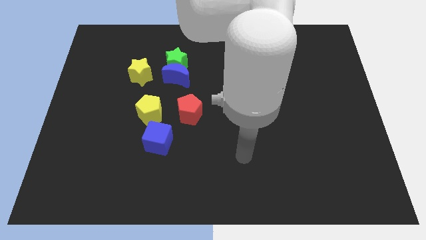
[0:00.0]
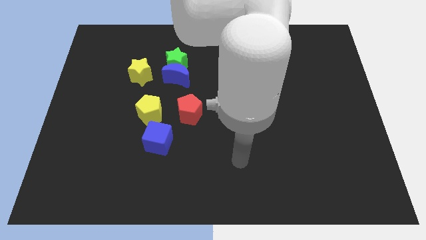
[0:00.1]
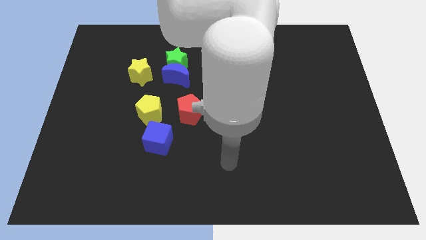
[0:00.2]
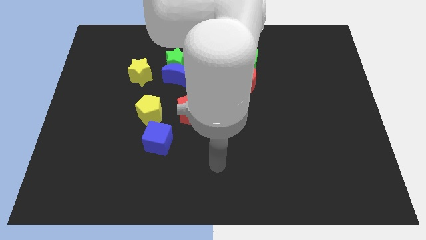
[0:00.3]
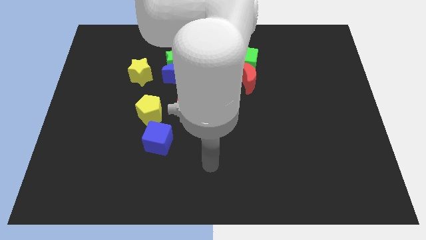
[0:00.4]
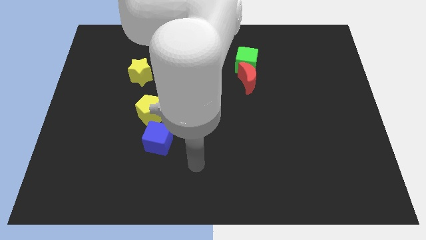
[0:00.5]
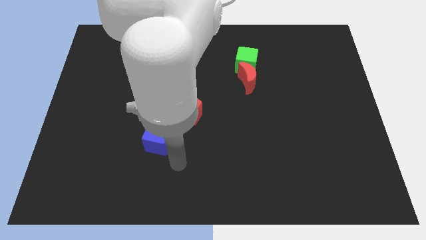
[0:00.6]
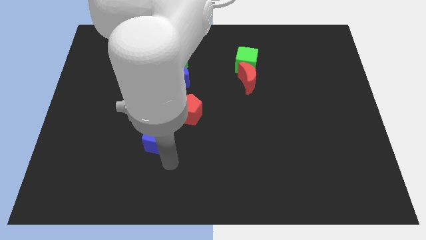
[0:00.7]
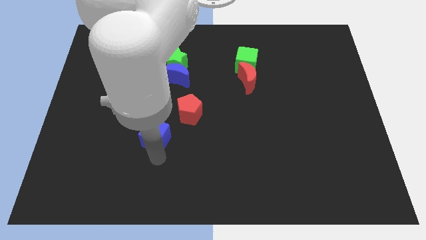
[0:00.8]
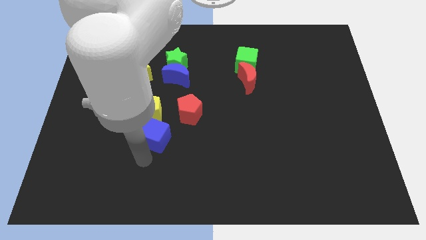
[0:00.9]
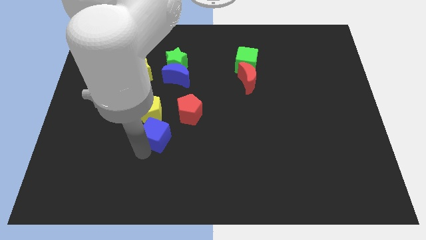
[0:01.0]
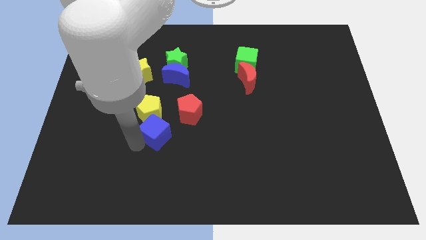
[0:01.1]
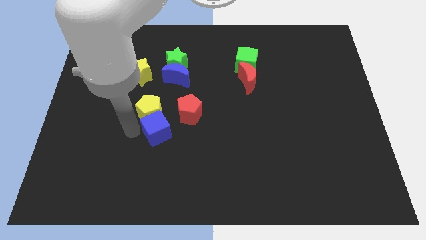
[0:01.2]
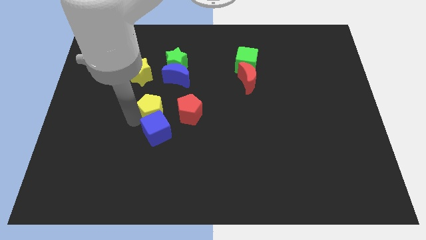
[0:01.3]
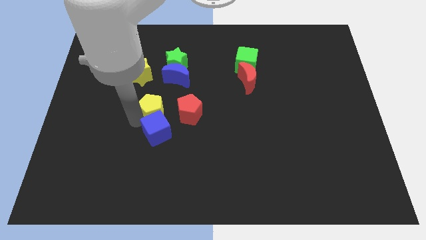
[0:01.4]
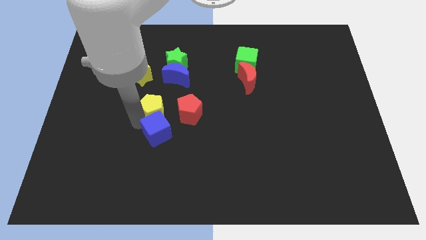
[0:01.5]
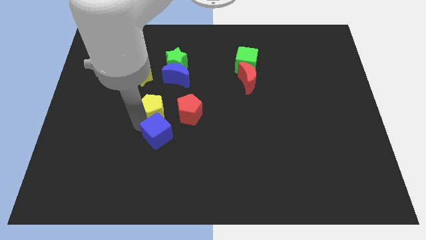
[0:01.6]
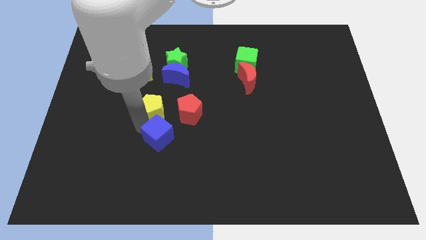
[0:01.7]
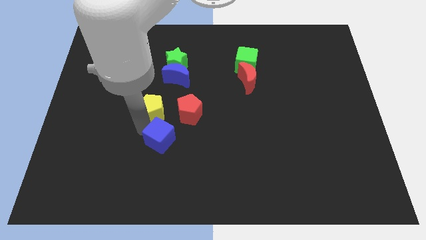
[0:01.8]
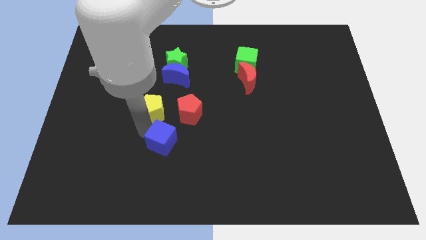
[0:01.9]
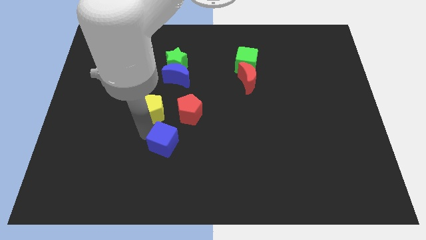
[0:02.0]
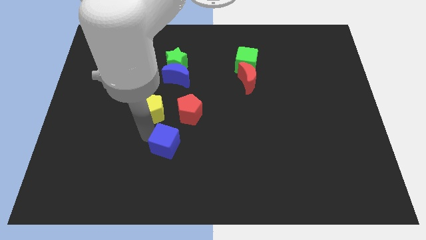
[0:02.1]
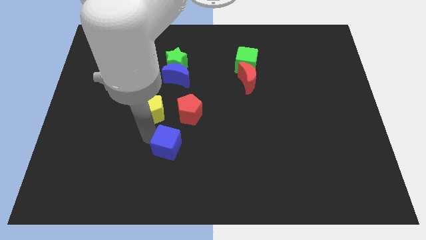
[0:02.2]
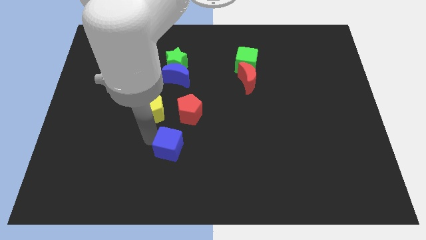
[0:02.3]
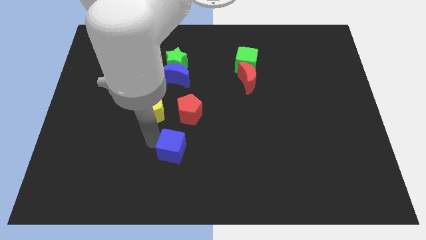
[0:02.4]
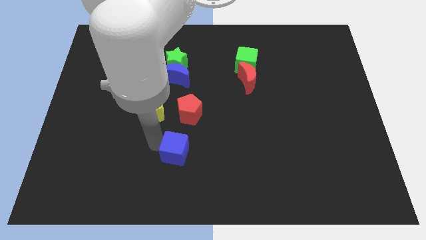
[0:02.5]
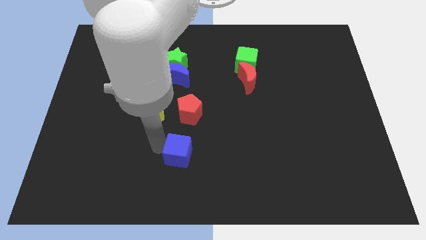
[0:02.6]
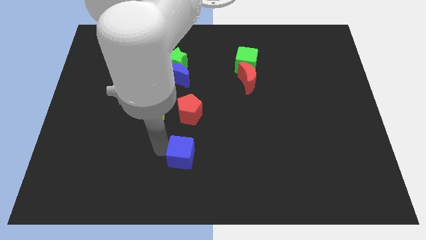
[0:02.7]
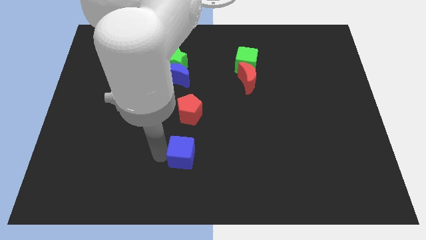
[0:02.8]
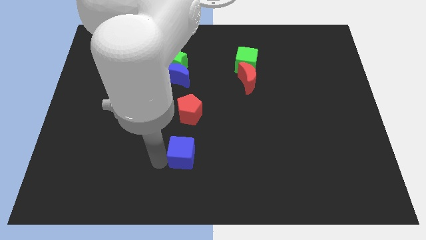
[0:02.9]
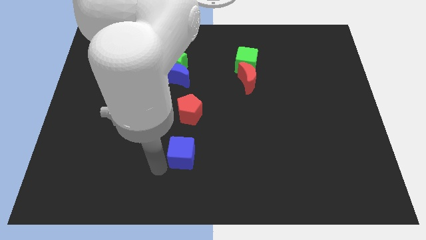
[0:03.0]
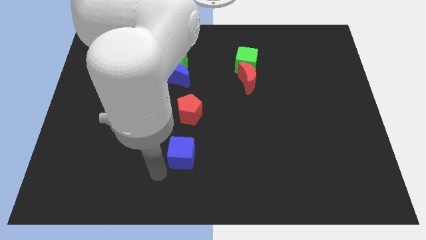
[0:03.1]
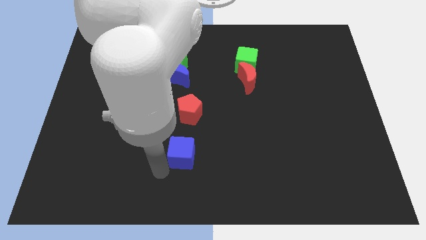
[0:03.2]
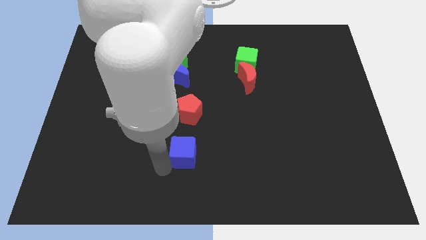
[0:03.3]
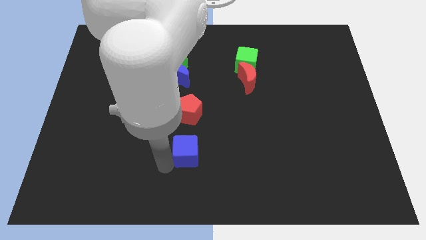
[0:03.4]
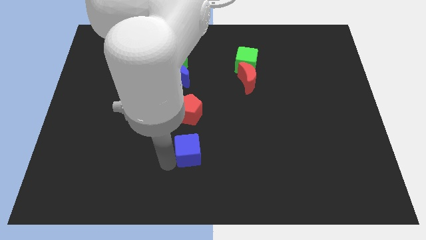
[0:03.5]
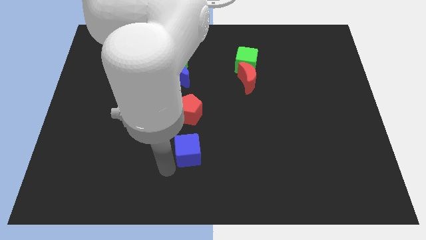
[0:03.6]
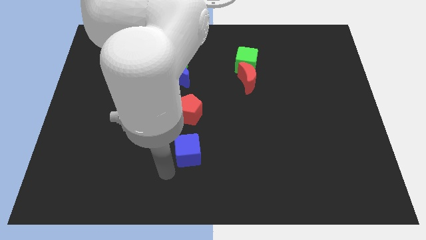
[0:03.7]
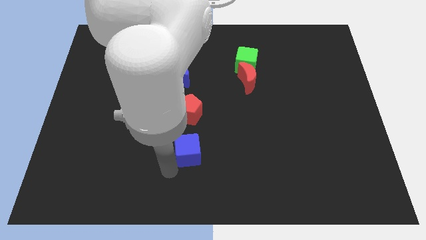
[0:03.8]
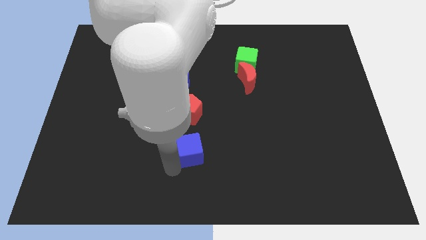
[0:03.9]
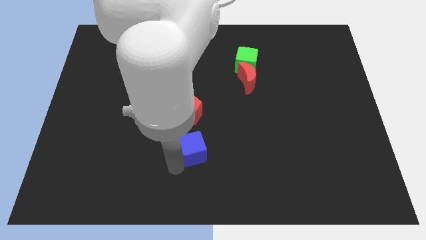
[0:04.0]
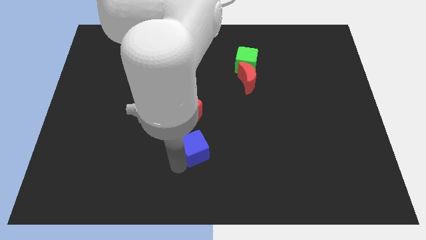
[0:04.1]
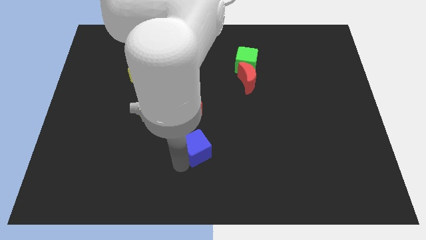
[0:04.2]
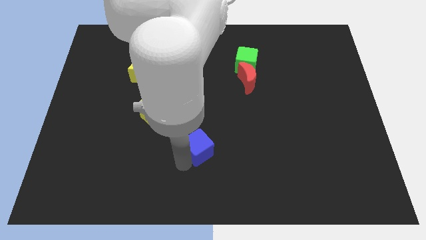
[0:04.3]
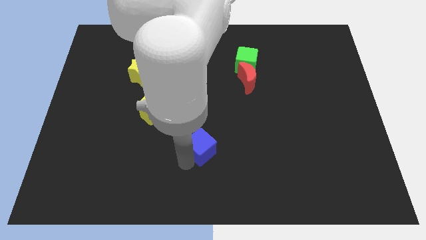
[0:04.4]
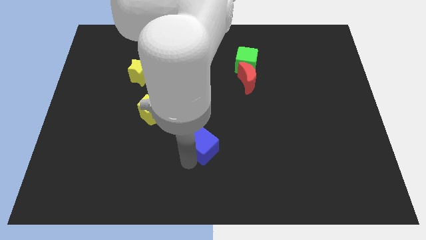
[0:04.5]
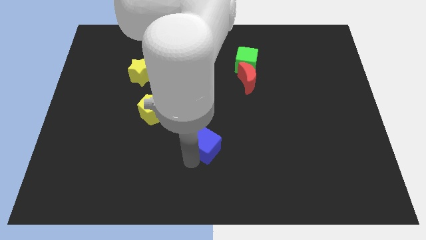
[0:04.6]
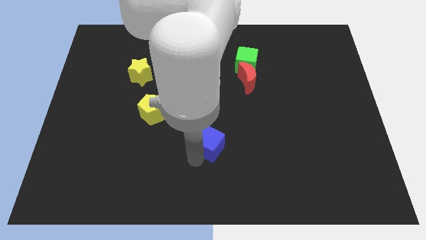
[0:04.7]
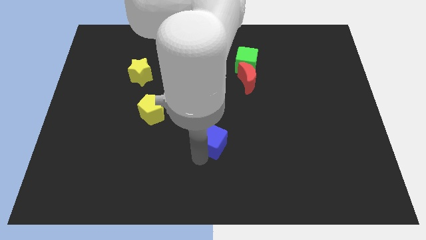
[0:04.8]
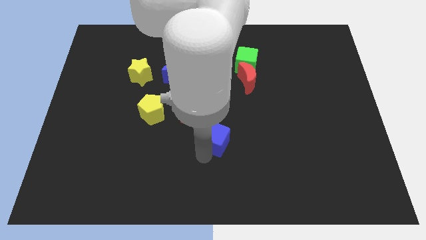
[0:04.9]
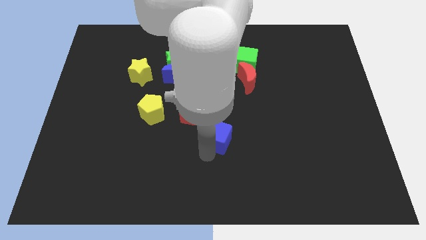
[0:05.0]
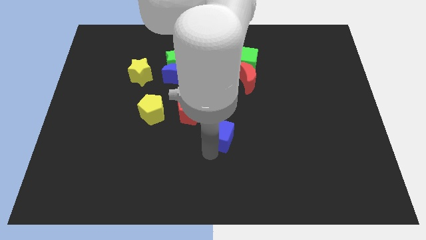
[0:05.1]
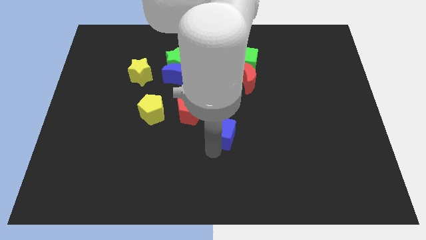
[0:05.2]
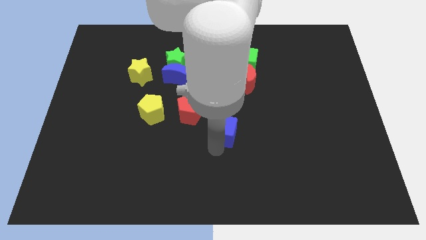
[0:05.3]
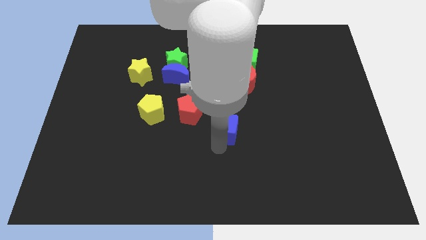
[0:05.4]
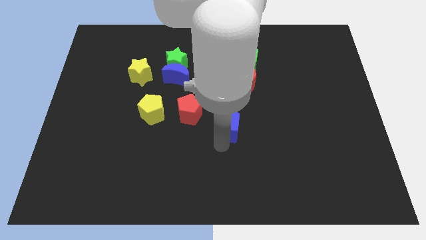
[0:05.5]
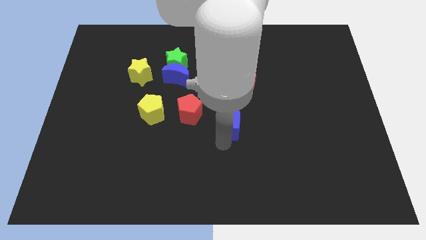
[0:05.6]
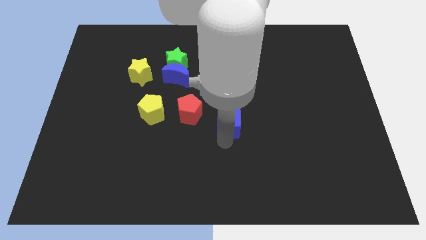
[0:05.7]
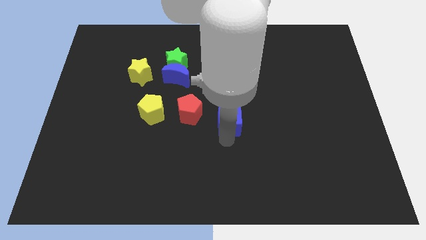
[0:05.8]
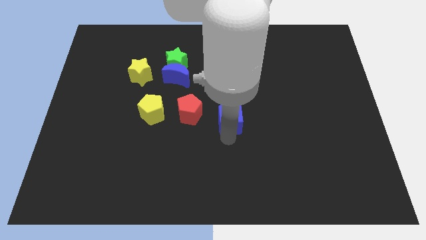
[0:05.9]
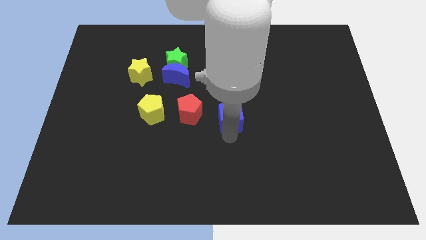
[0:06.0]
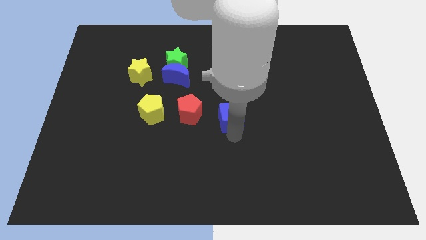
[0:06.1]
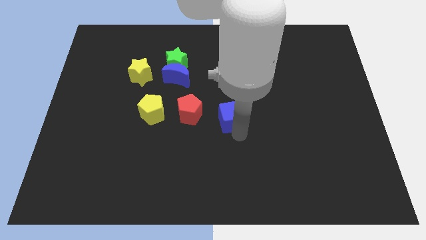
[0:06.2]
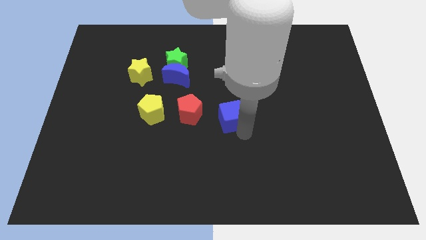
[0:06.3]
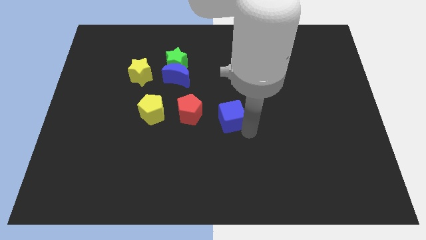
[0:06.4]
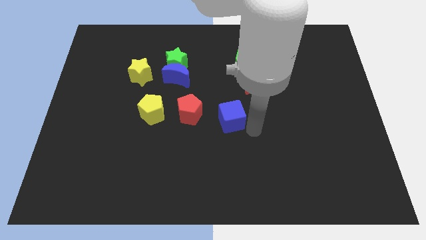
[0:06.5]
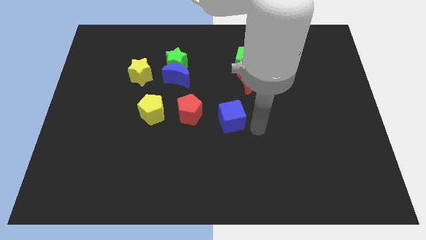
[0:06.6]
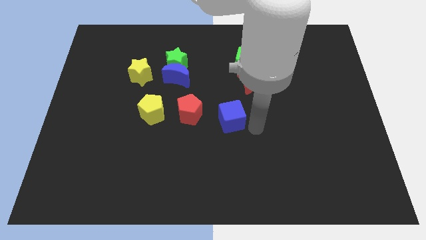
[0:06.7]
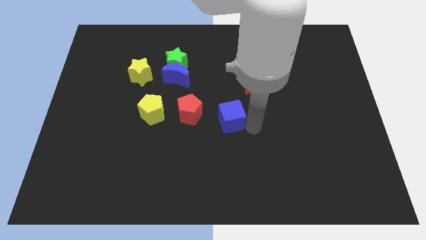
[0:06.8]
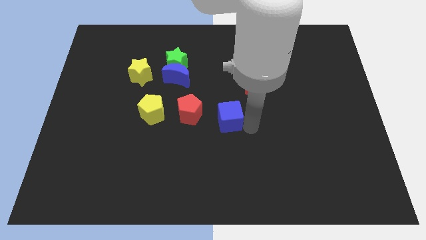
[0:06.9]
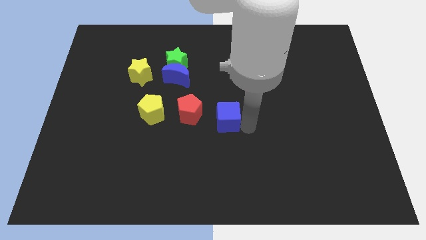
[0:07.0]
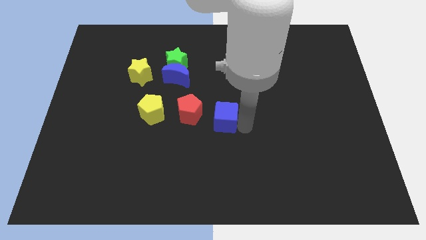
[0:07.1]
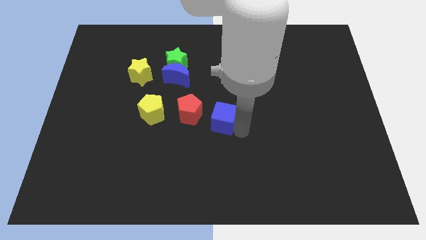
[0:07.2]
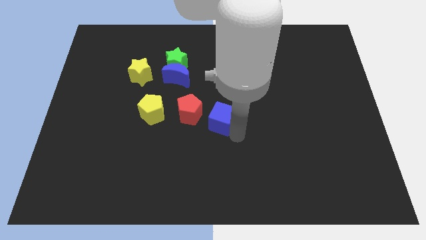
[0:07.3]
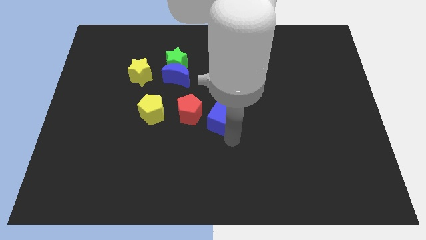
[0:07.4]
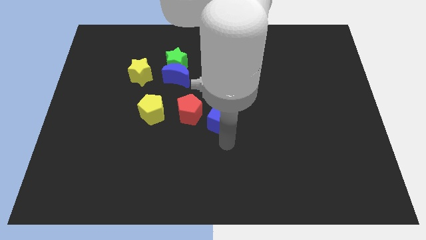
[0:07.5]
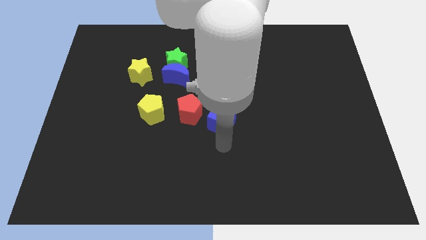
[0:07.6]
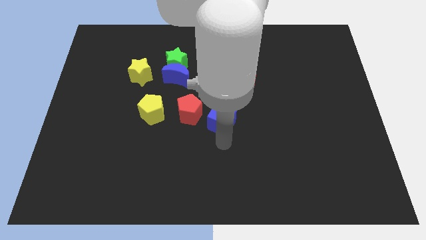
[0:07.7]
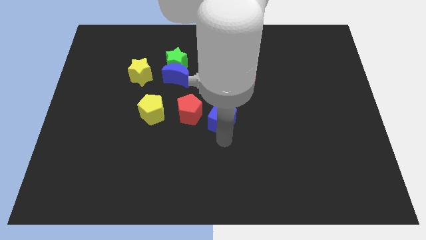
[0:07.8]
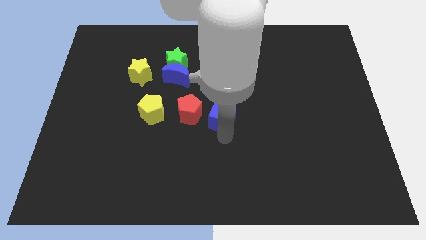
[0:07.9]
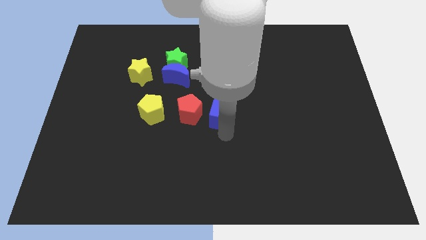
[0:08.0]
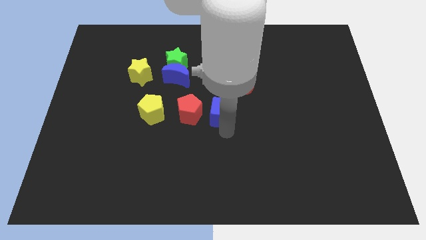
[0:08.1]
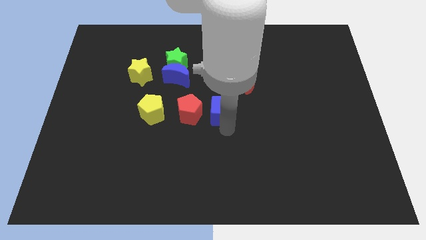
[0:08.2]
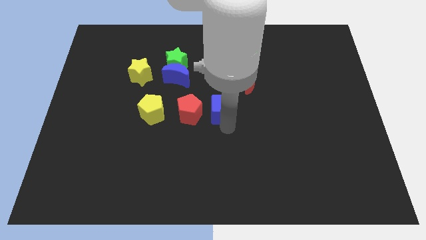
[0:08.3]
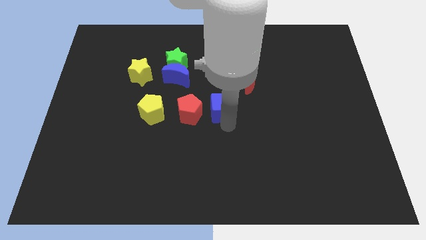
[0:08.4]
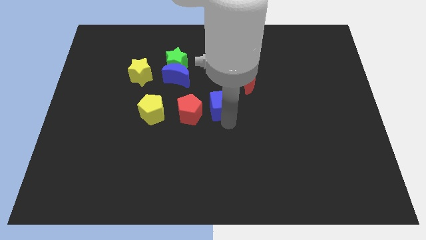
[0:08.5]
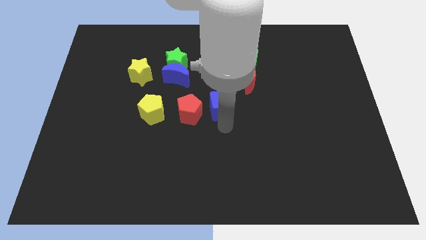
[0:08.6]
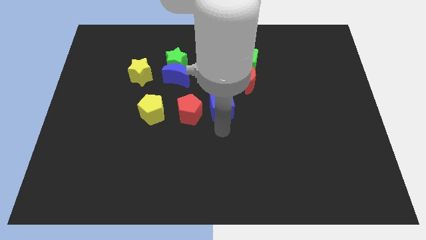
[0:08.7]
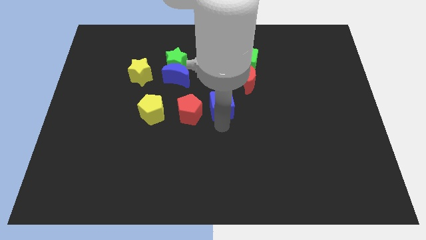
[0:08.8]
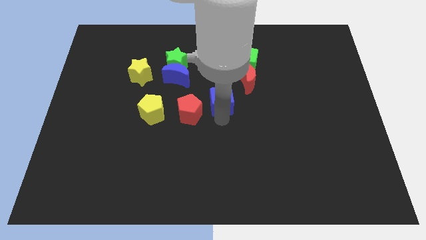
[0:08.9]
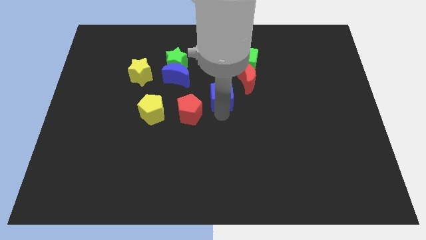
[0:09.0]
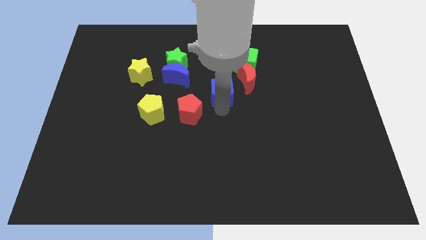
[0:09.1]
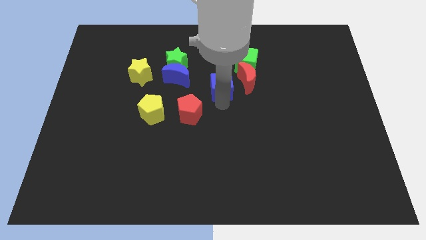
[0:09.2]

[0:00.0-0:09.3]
put the blue cube to the right side of the blue moon
